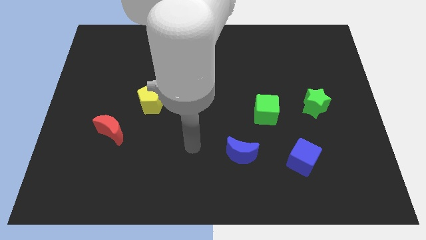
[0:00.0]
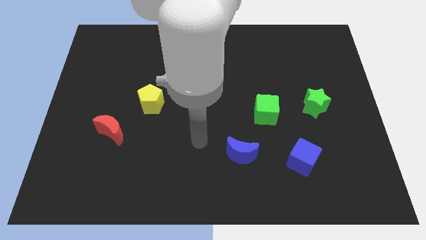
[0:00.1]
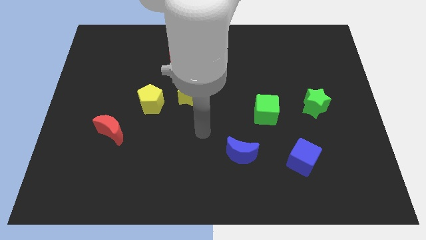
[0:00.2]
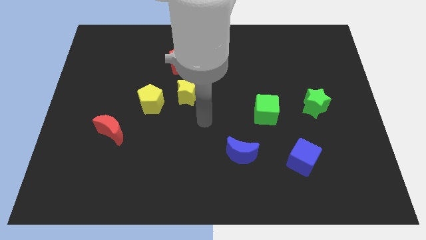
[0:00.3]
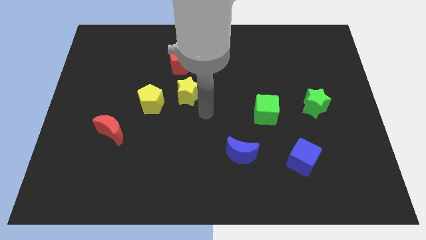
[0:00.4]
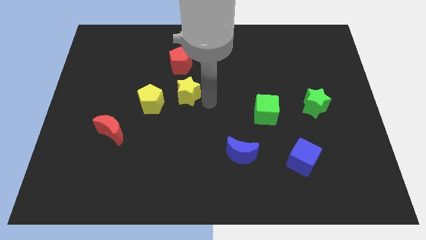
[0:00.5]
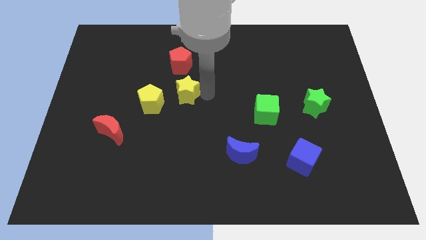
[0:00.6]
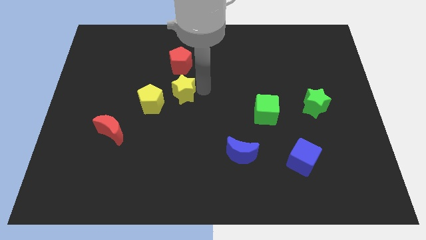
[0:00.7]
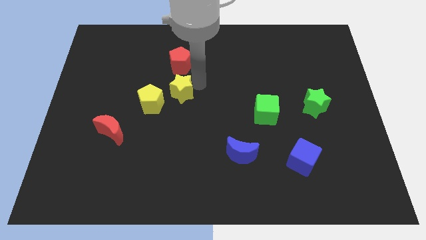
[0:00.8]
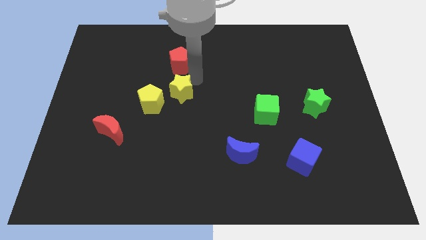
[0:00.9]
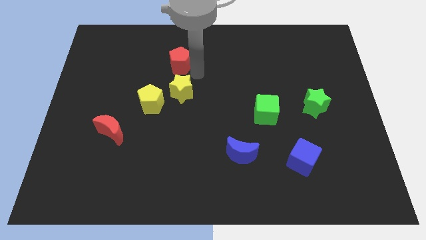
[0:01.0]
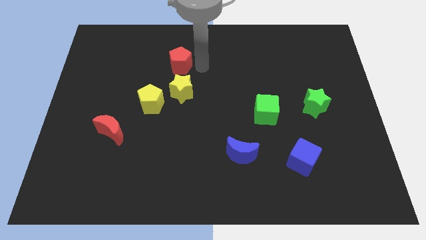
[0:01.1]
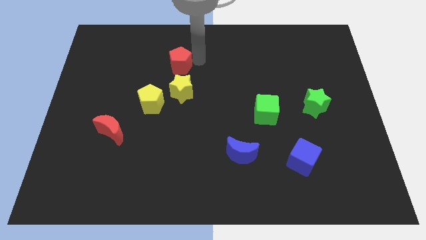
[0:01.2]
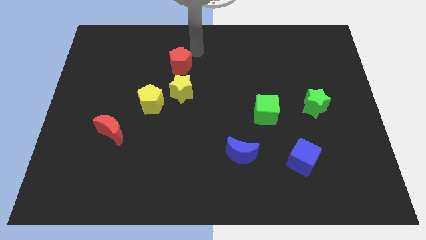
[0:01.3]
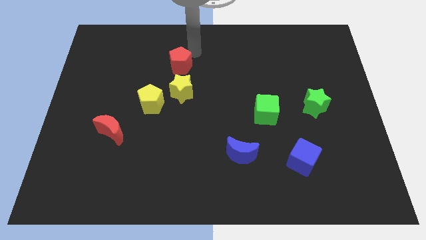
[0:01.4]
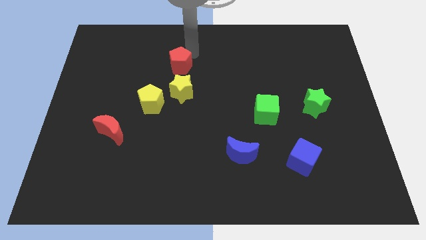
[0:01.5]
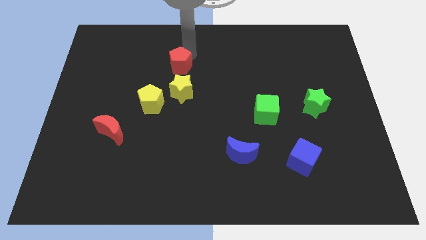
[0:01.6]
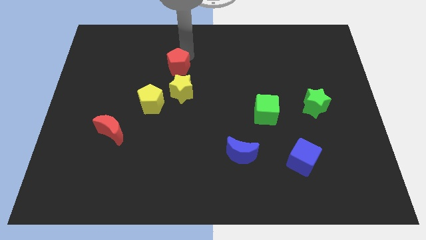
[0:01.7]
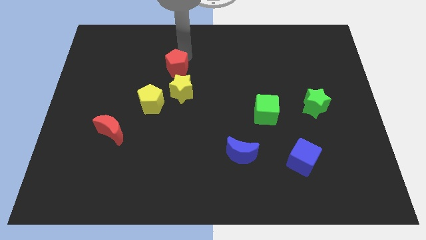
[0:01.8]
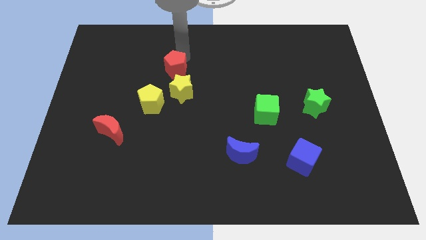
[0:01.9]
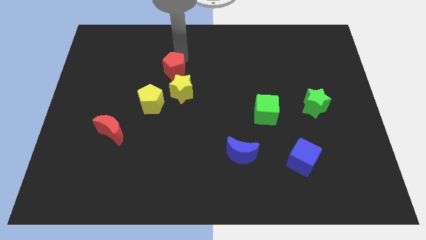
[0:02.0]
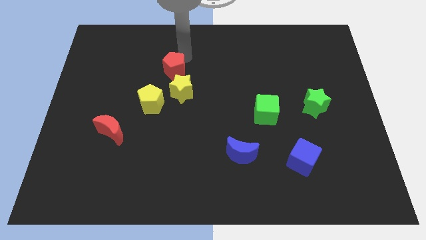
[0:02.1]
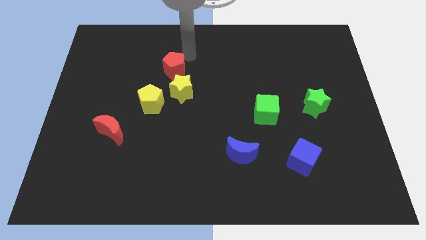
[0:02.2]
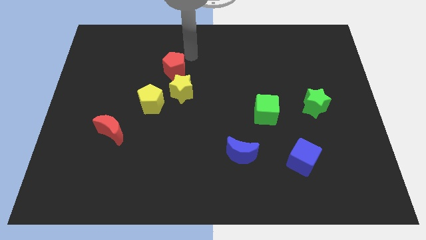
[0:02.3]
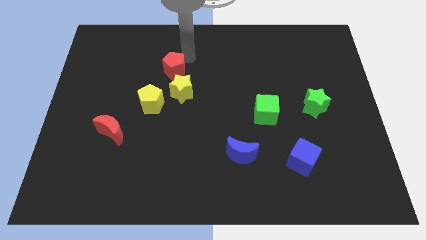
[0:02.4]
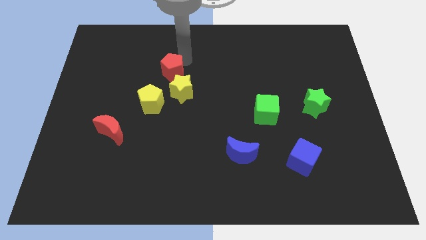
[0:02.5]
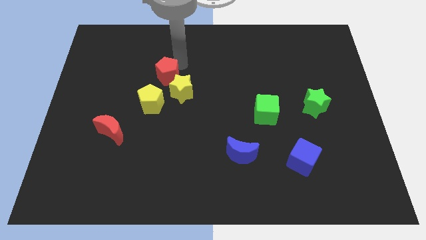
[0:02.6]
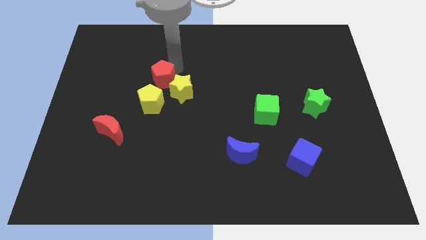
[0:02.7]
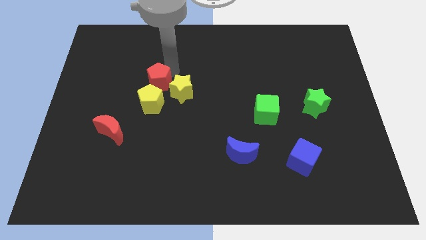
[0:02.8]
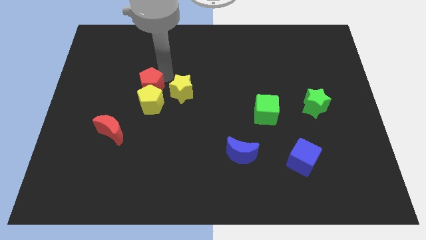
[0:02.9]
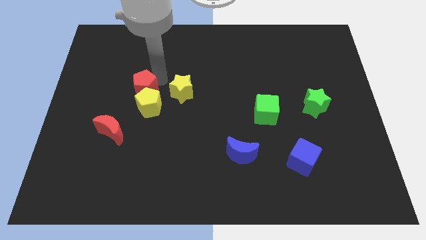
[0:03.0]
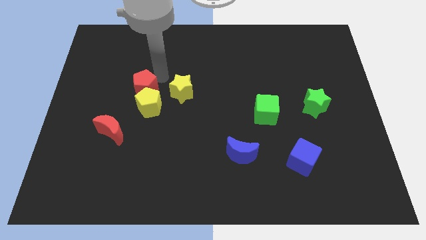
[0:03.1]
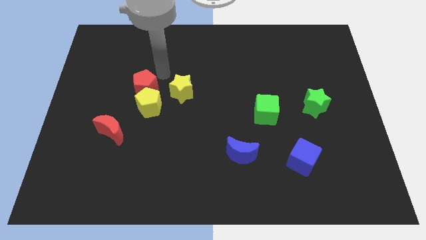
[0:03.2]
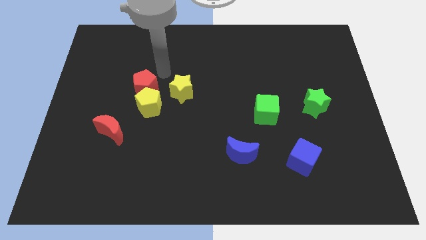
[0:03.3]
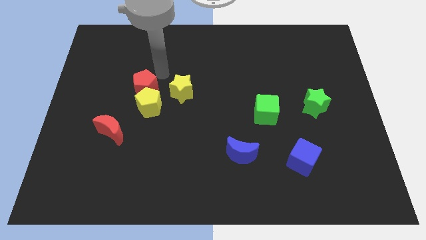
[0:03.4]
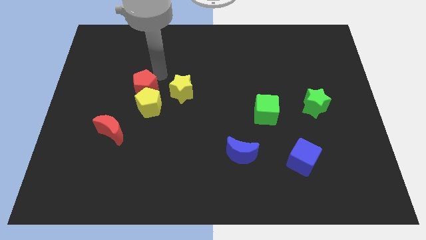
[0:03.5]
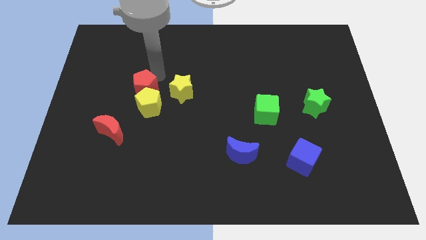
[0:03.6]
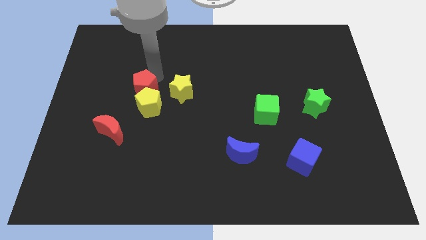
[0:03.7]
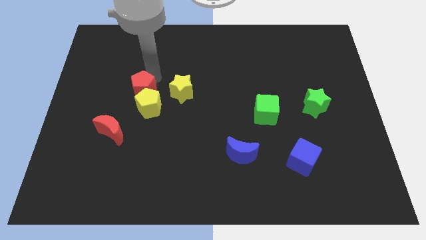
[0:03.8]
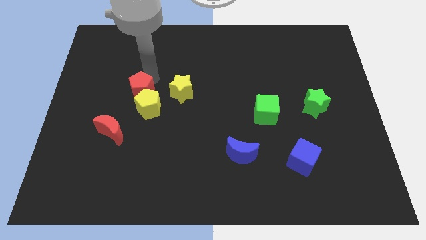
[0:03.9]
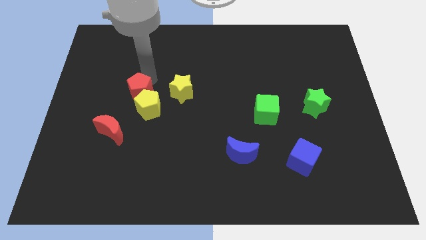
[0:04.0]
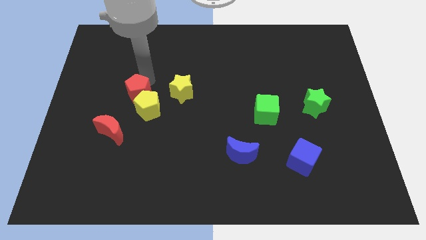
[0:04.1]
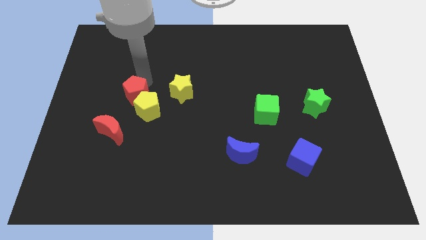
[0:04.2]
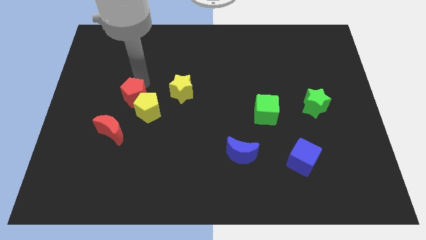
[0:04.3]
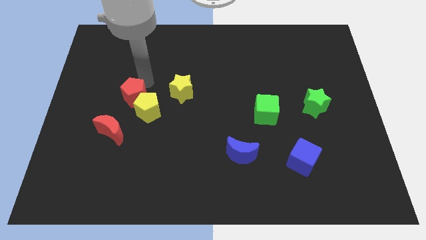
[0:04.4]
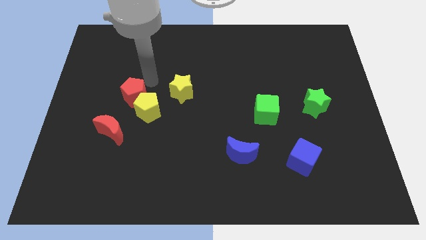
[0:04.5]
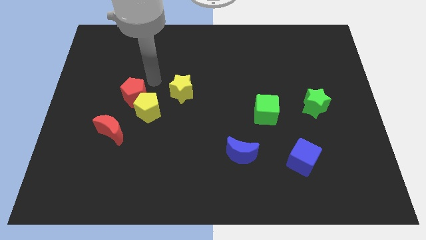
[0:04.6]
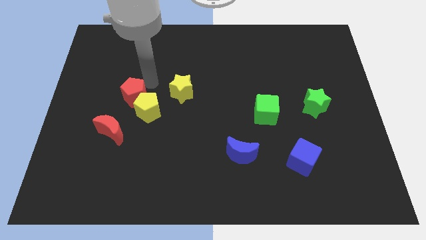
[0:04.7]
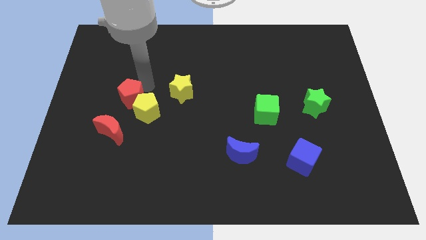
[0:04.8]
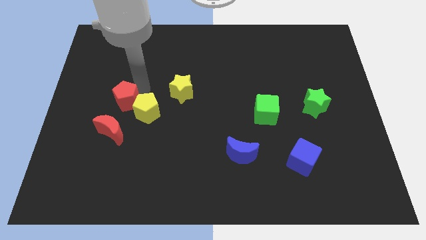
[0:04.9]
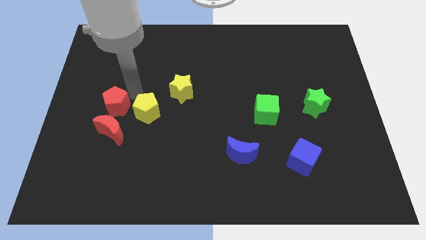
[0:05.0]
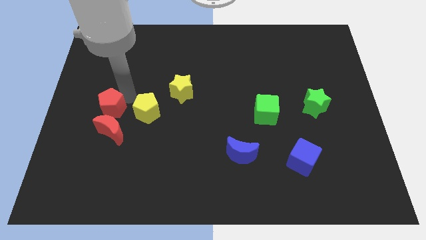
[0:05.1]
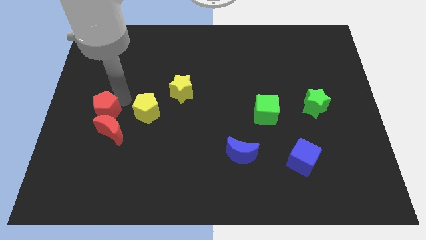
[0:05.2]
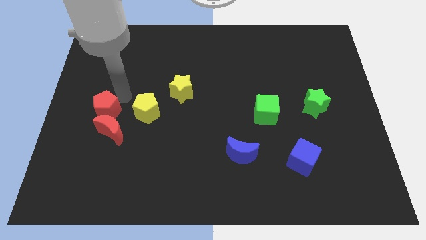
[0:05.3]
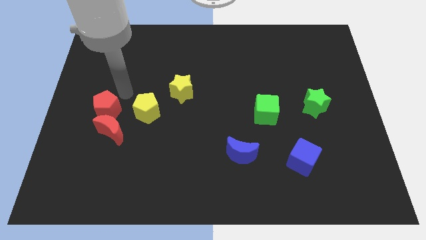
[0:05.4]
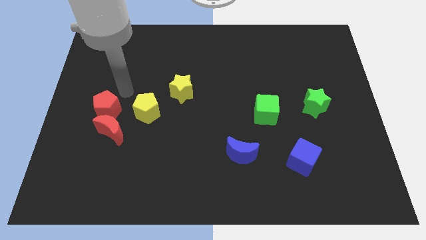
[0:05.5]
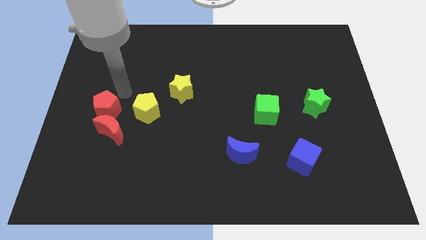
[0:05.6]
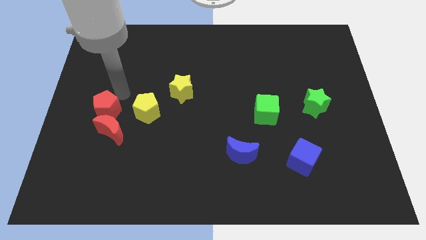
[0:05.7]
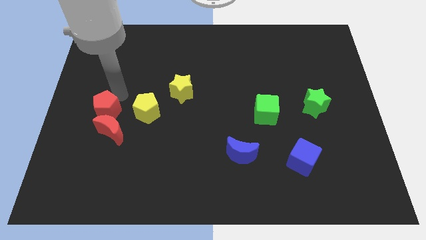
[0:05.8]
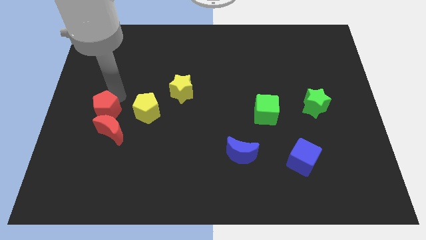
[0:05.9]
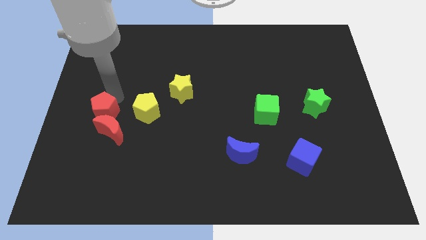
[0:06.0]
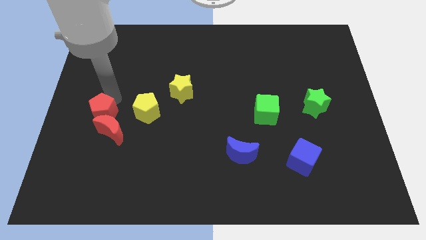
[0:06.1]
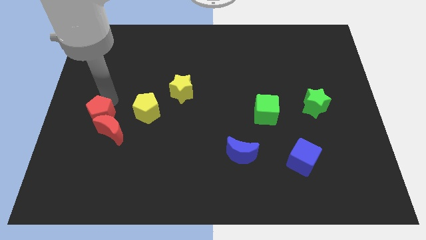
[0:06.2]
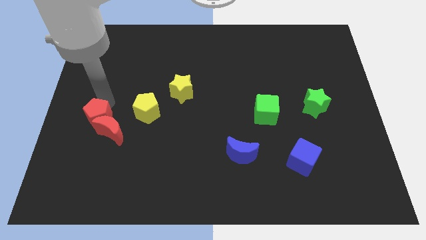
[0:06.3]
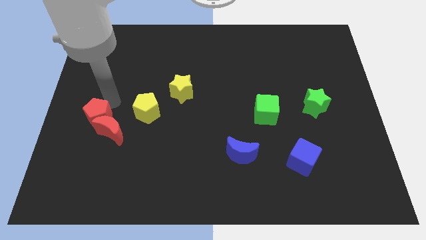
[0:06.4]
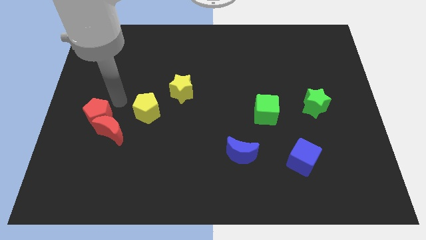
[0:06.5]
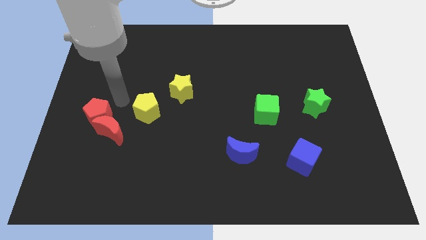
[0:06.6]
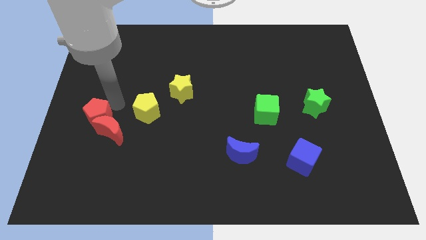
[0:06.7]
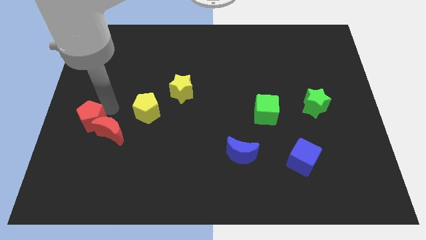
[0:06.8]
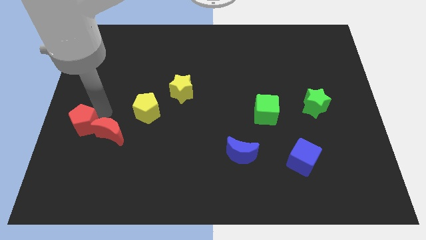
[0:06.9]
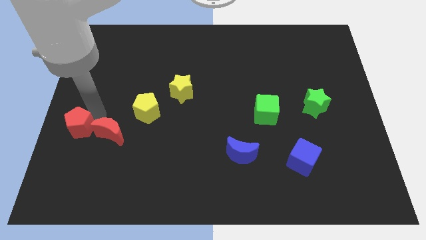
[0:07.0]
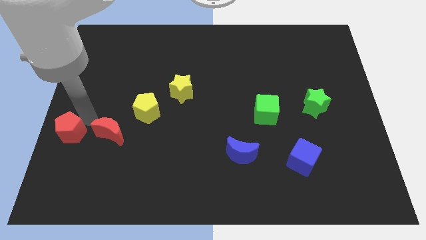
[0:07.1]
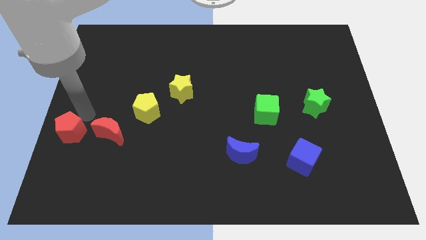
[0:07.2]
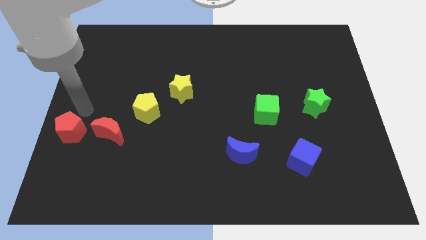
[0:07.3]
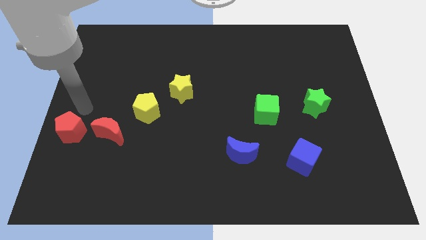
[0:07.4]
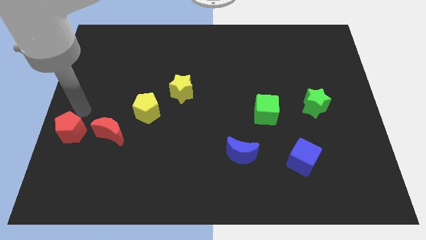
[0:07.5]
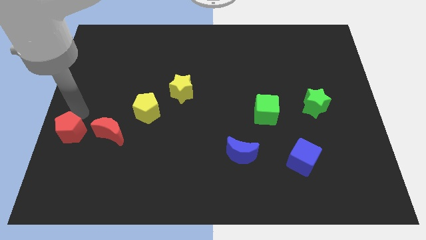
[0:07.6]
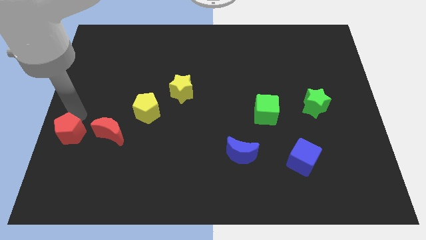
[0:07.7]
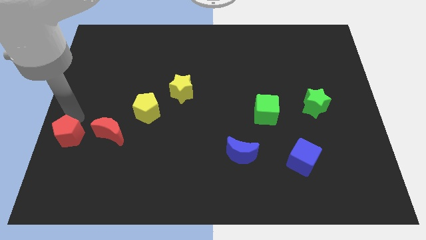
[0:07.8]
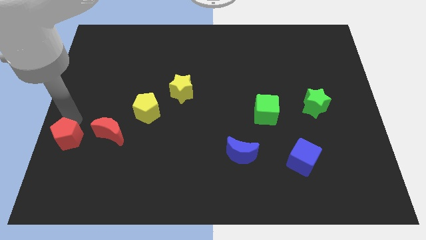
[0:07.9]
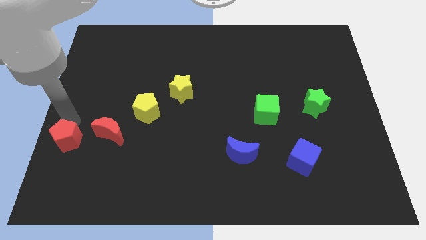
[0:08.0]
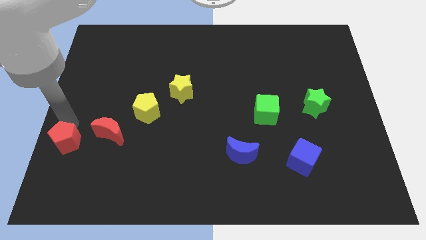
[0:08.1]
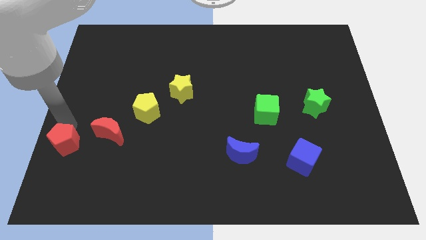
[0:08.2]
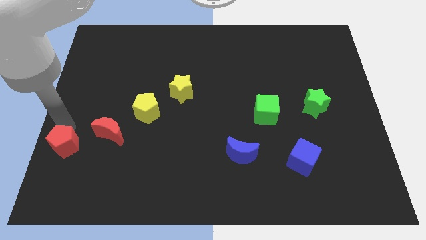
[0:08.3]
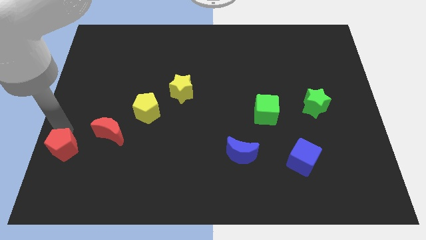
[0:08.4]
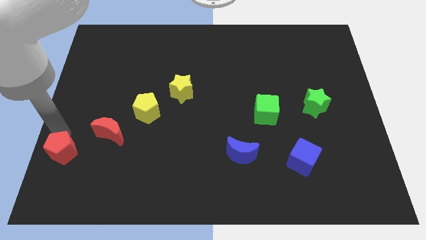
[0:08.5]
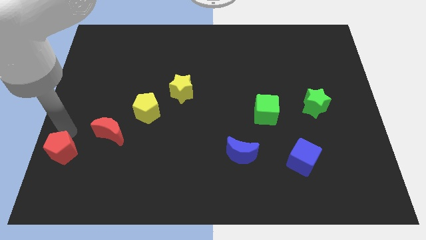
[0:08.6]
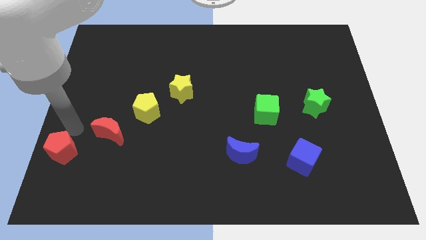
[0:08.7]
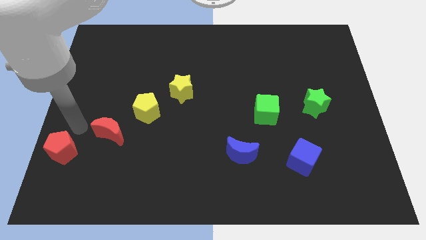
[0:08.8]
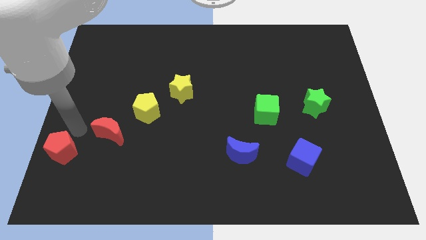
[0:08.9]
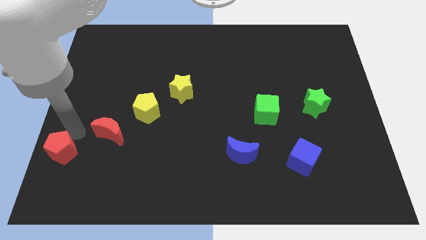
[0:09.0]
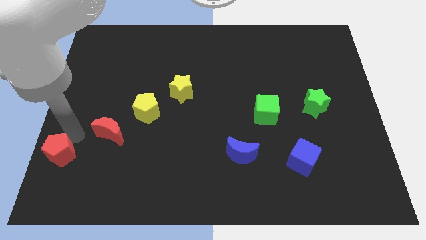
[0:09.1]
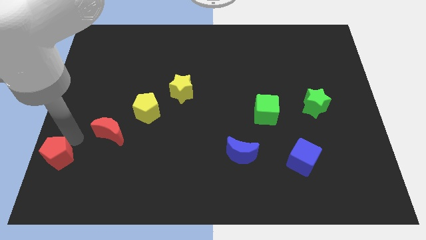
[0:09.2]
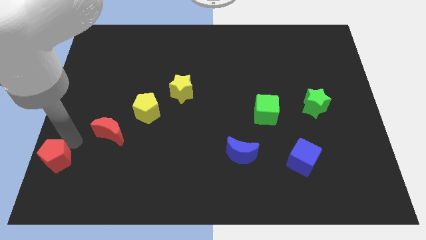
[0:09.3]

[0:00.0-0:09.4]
push the red pentagon to the lower left corner
